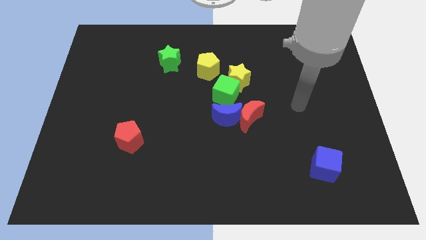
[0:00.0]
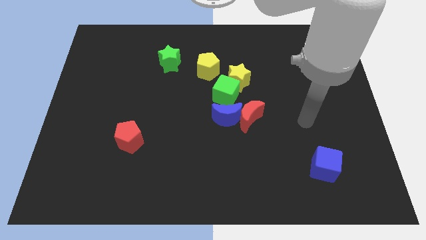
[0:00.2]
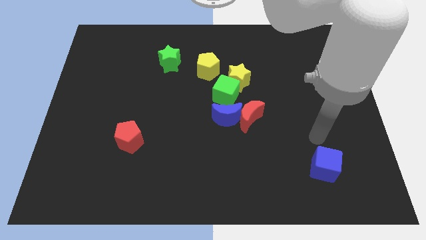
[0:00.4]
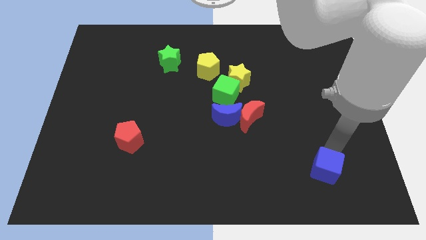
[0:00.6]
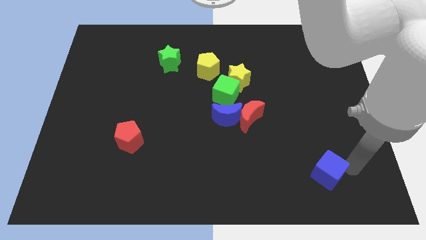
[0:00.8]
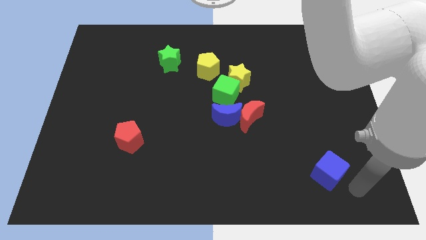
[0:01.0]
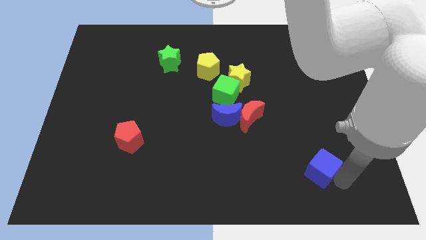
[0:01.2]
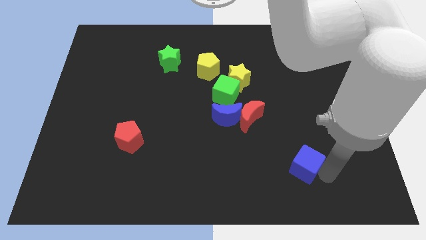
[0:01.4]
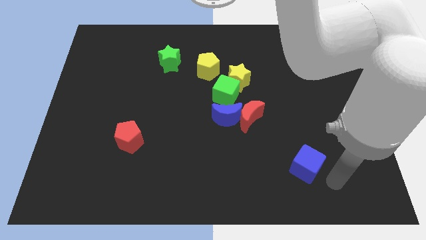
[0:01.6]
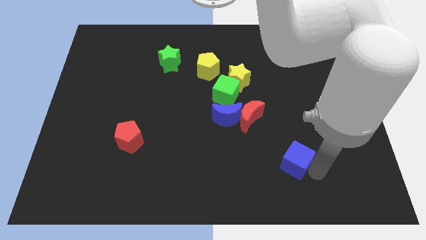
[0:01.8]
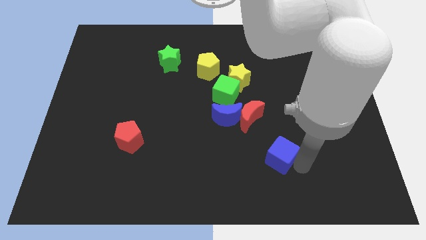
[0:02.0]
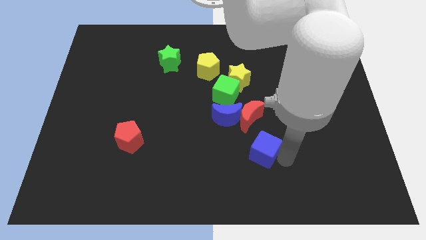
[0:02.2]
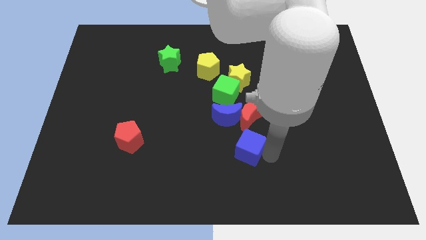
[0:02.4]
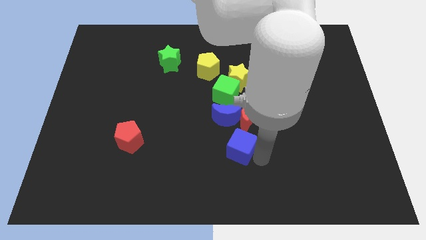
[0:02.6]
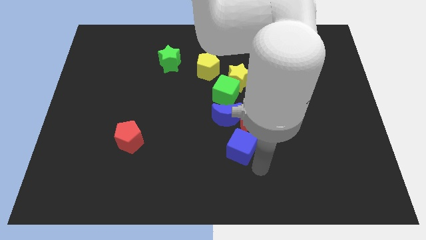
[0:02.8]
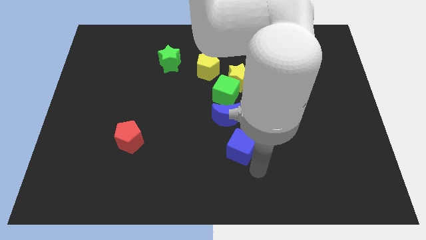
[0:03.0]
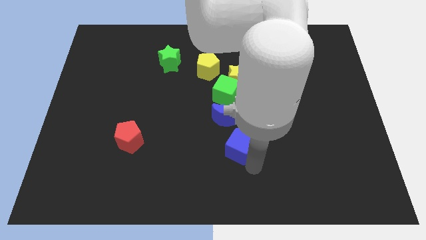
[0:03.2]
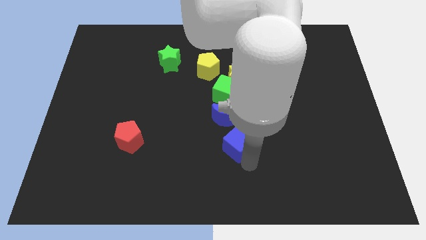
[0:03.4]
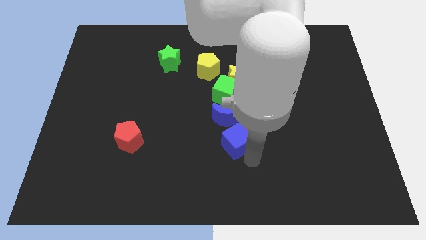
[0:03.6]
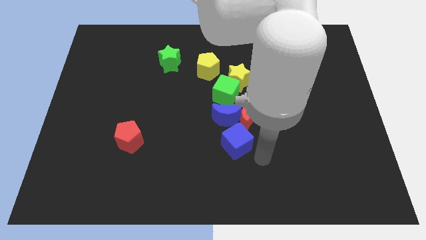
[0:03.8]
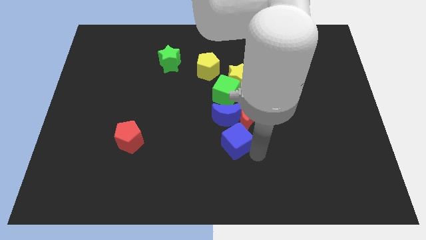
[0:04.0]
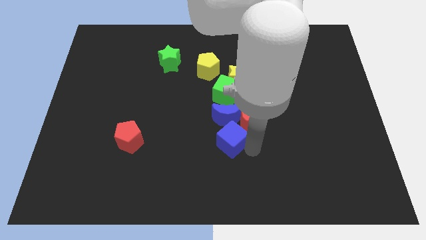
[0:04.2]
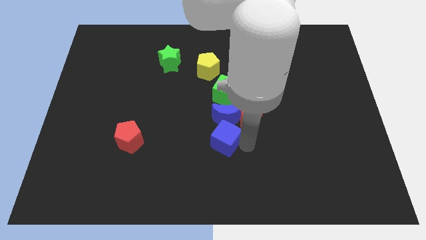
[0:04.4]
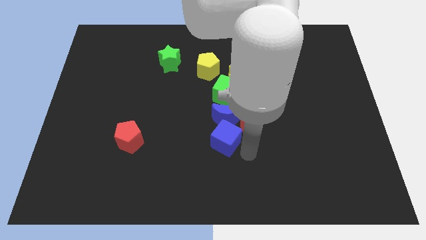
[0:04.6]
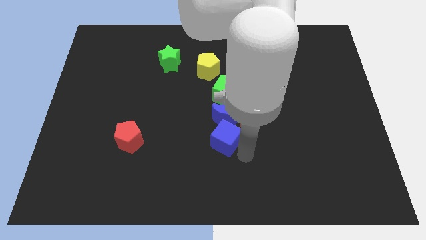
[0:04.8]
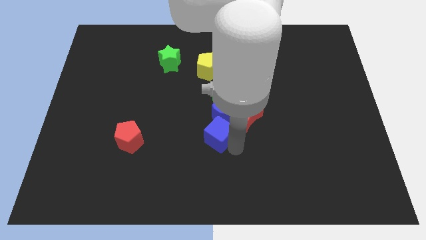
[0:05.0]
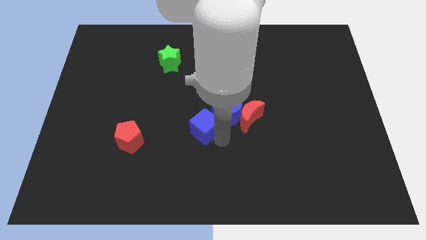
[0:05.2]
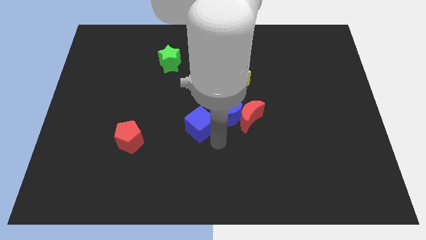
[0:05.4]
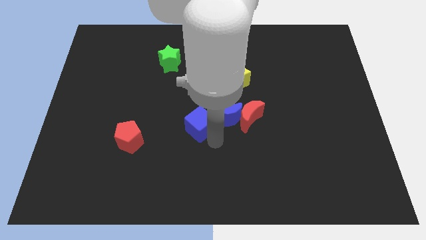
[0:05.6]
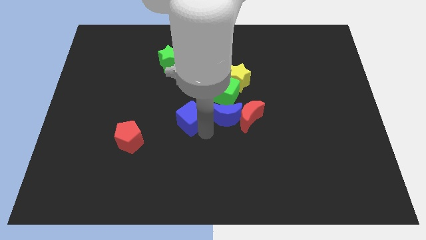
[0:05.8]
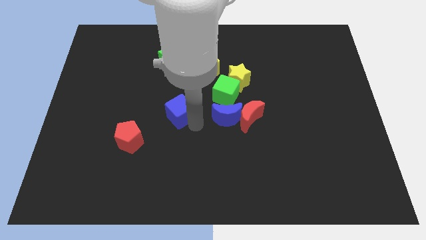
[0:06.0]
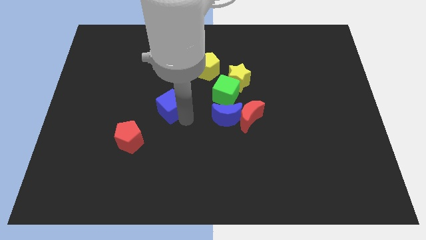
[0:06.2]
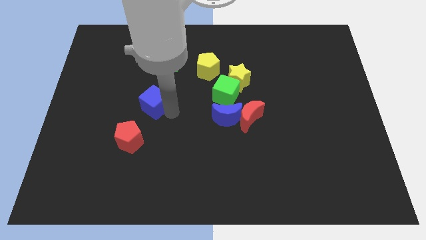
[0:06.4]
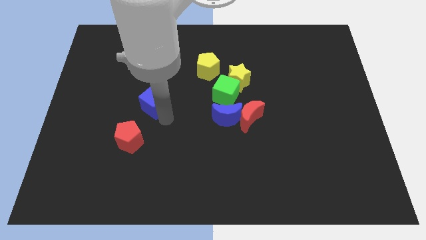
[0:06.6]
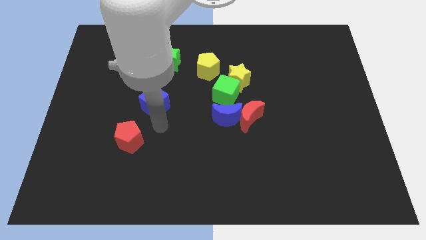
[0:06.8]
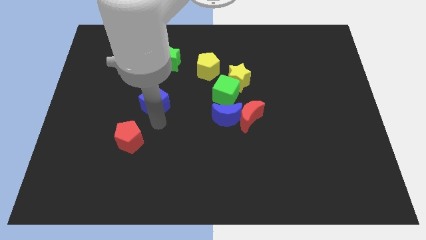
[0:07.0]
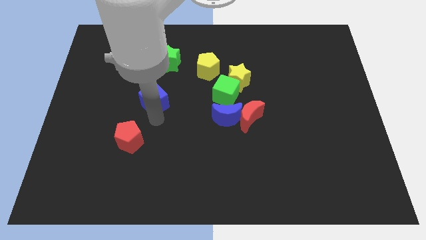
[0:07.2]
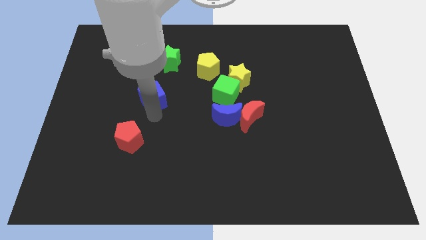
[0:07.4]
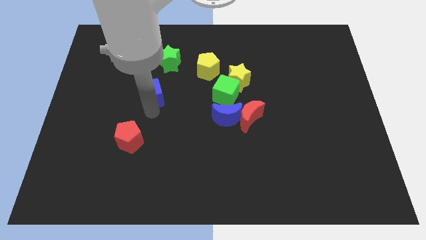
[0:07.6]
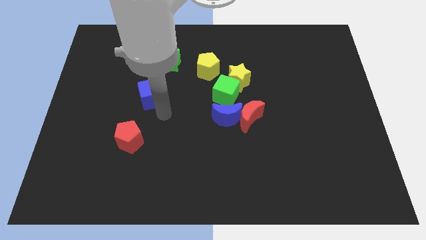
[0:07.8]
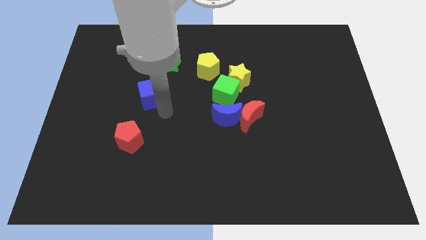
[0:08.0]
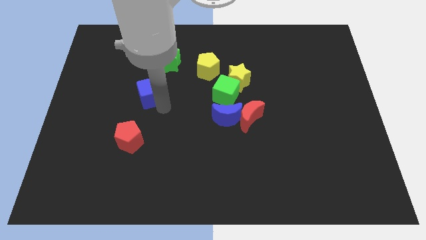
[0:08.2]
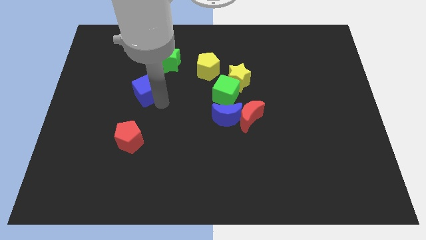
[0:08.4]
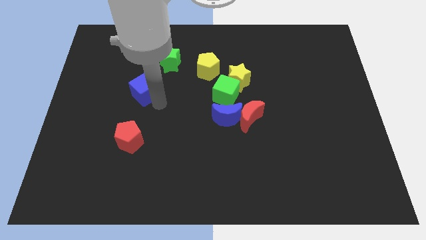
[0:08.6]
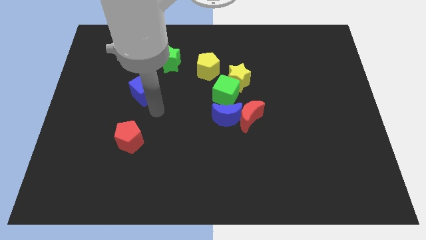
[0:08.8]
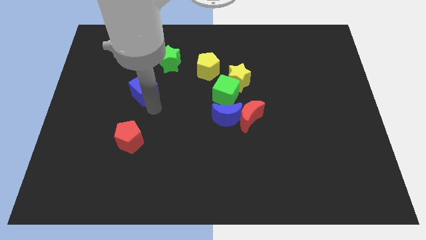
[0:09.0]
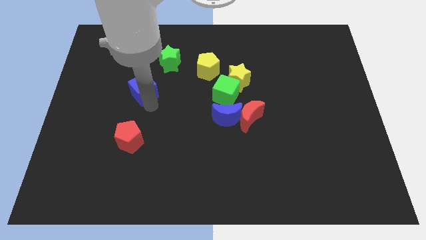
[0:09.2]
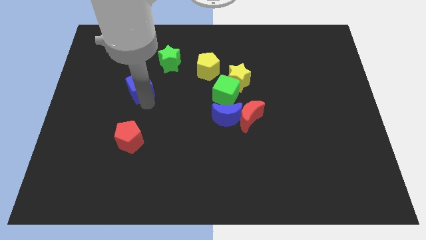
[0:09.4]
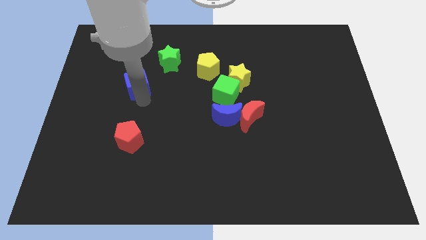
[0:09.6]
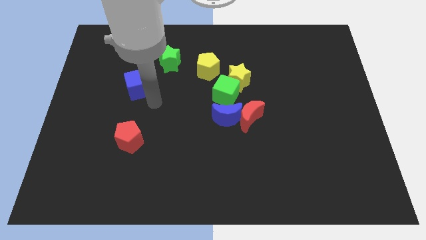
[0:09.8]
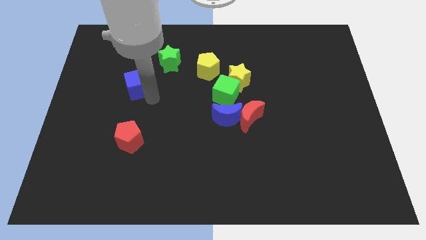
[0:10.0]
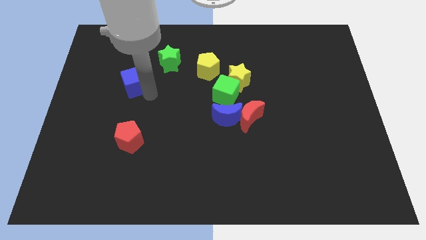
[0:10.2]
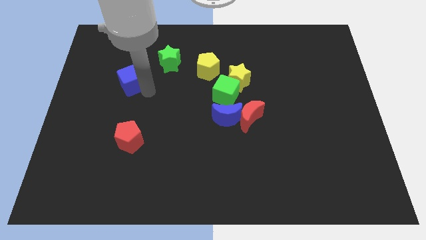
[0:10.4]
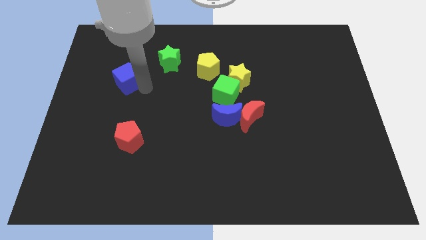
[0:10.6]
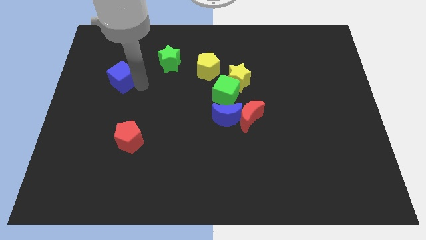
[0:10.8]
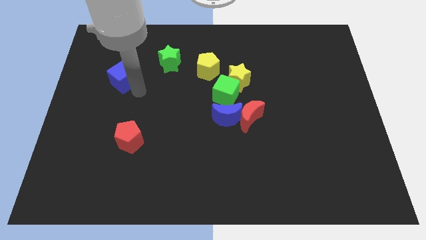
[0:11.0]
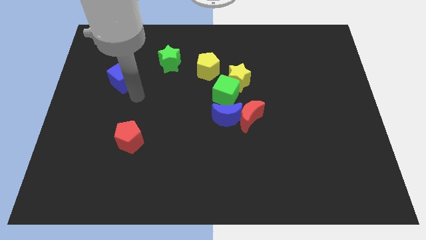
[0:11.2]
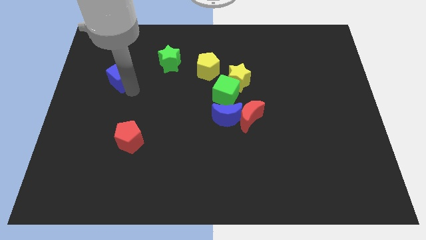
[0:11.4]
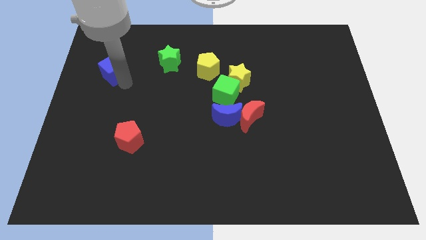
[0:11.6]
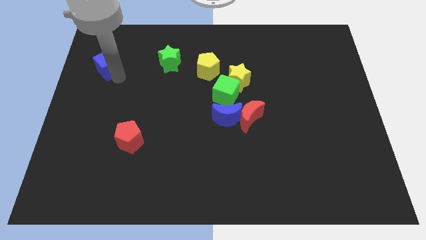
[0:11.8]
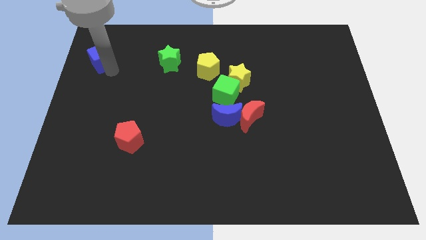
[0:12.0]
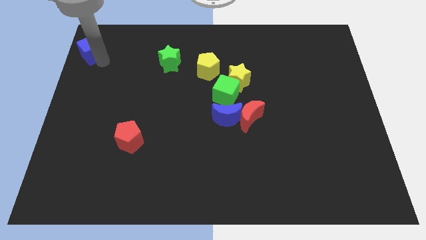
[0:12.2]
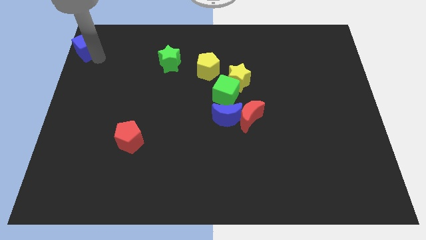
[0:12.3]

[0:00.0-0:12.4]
push the blue cube to the top left
